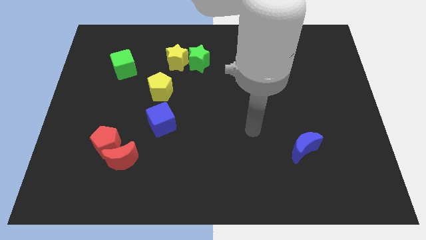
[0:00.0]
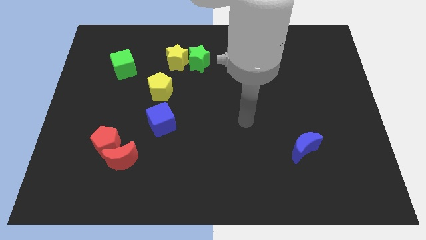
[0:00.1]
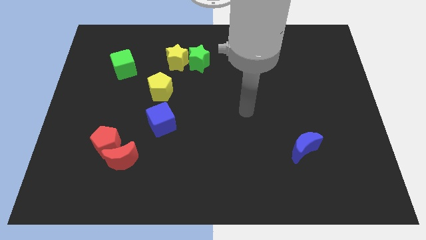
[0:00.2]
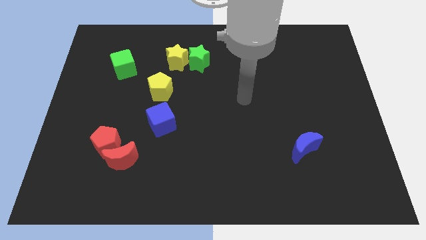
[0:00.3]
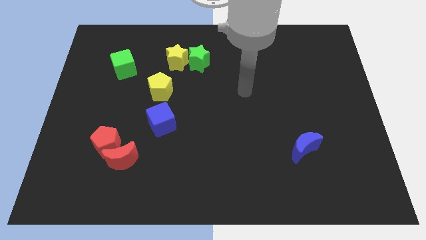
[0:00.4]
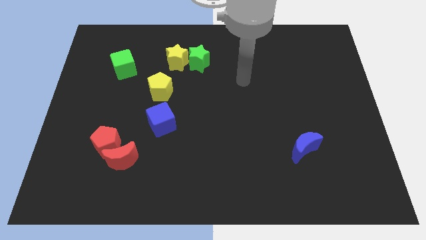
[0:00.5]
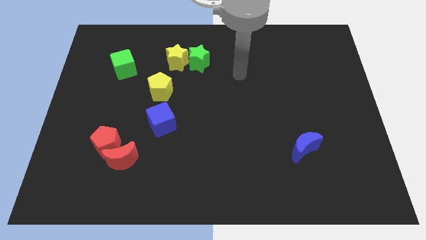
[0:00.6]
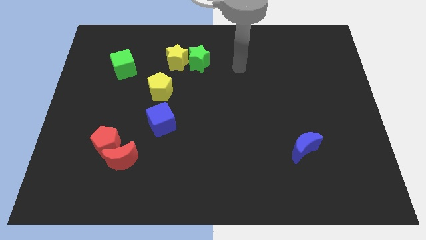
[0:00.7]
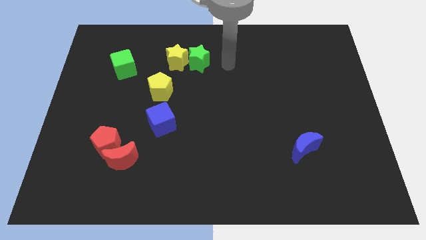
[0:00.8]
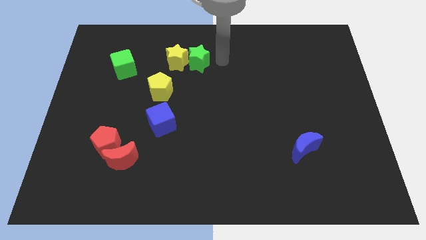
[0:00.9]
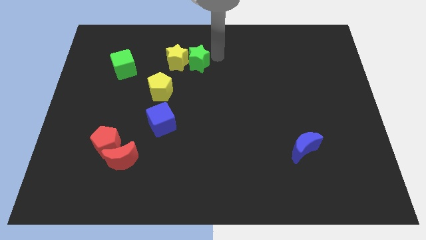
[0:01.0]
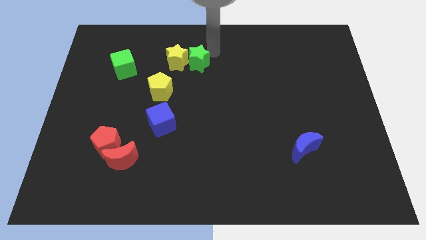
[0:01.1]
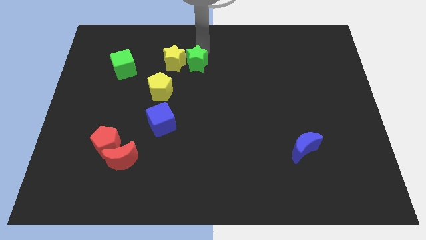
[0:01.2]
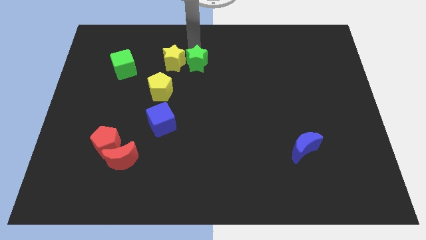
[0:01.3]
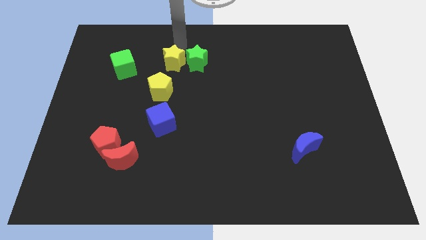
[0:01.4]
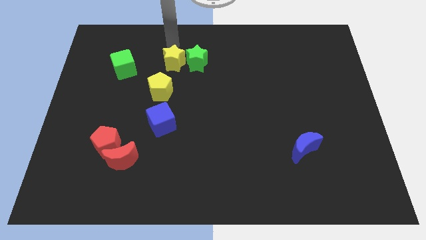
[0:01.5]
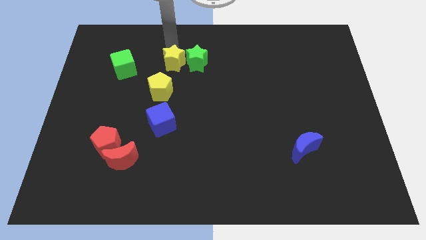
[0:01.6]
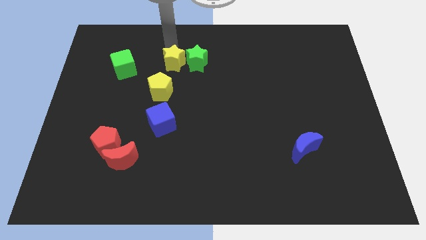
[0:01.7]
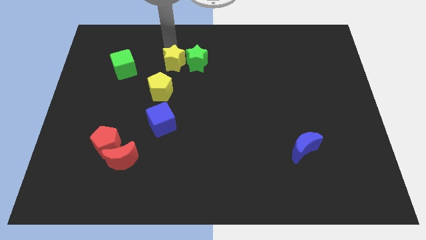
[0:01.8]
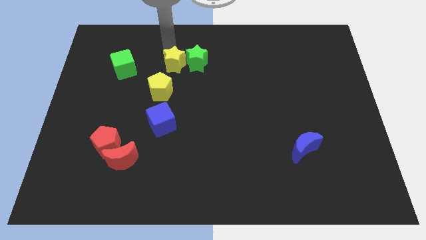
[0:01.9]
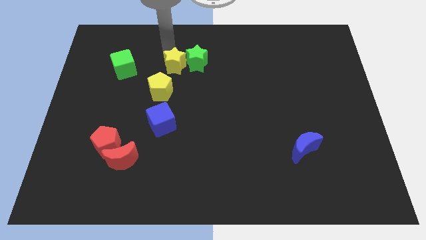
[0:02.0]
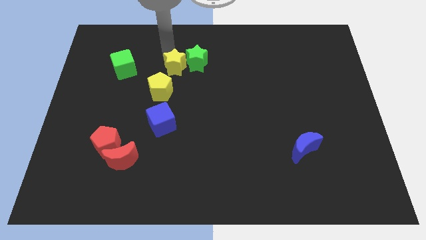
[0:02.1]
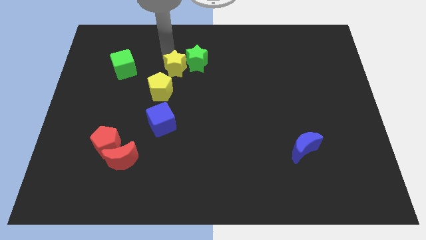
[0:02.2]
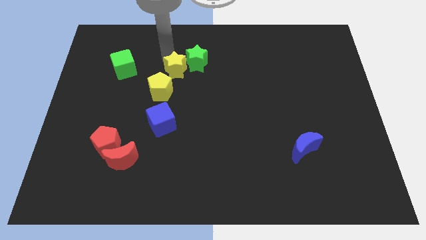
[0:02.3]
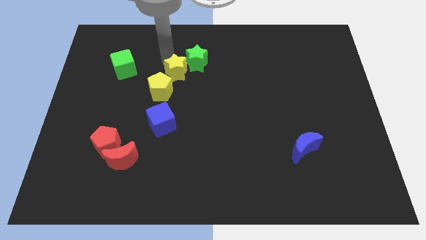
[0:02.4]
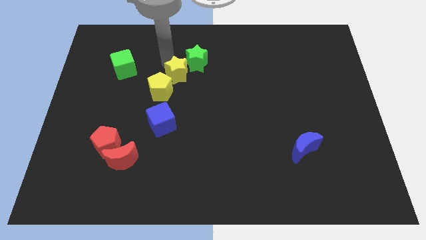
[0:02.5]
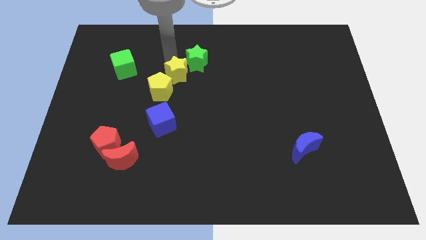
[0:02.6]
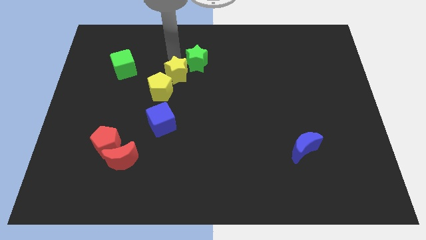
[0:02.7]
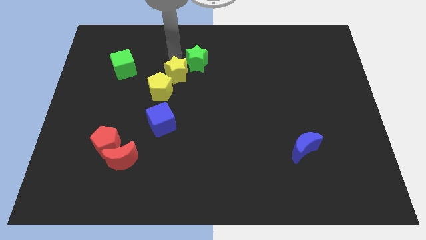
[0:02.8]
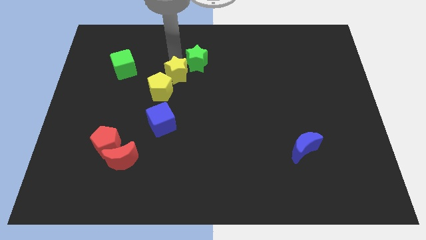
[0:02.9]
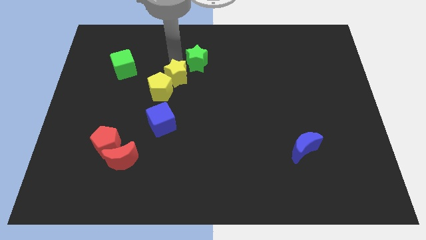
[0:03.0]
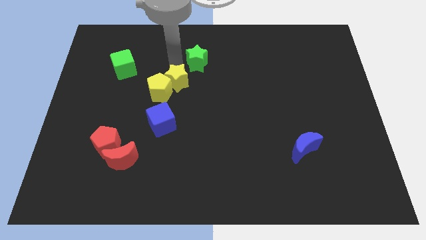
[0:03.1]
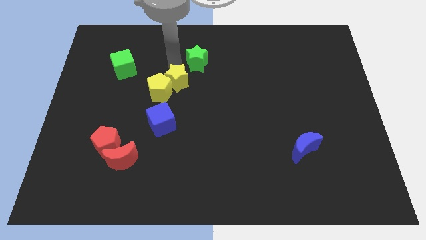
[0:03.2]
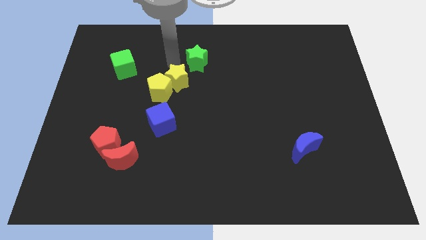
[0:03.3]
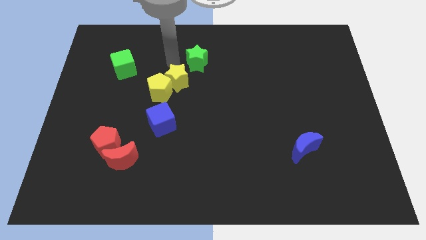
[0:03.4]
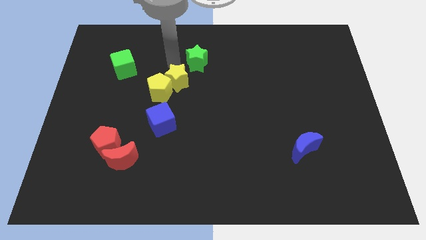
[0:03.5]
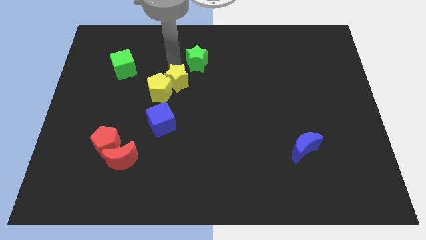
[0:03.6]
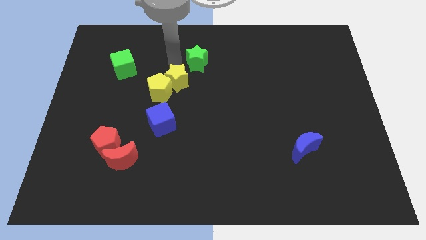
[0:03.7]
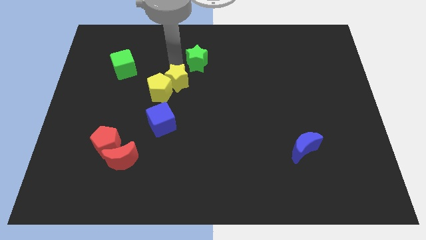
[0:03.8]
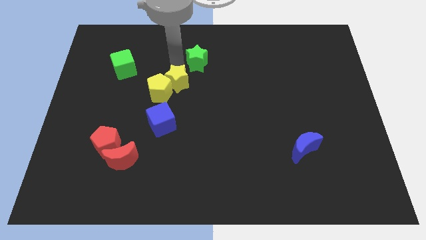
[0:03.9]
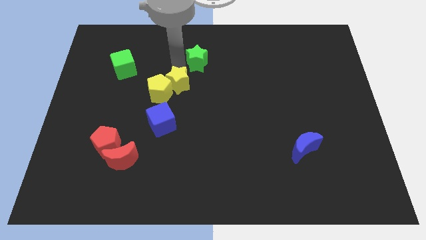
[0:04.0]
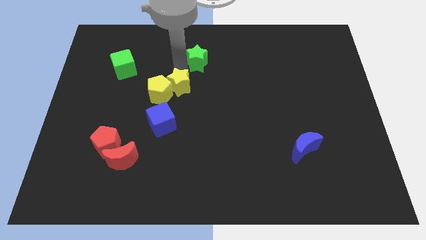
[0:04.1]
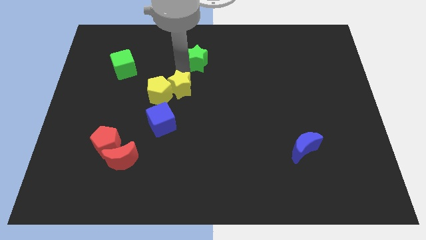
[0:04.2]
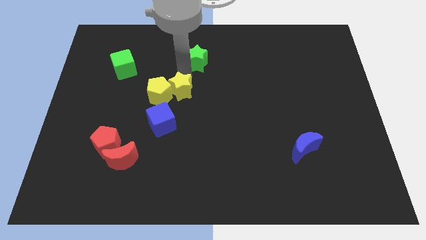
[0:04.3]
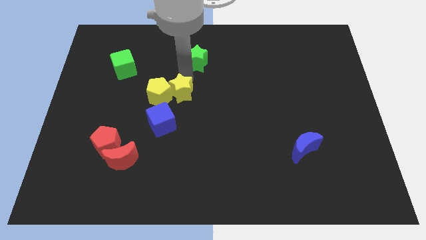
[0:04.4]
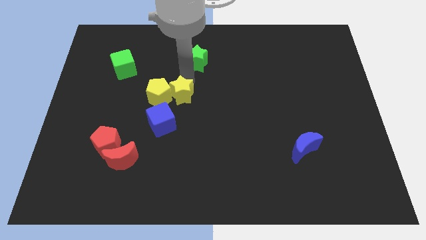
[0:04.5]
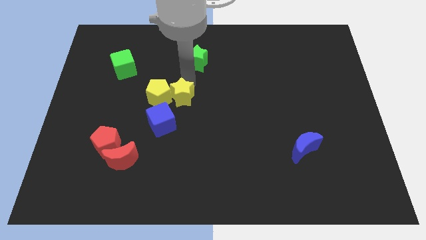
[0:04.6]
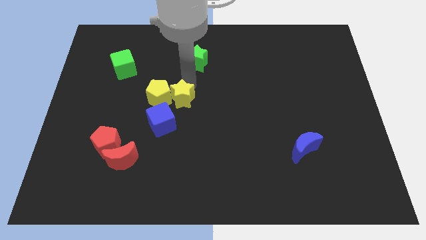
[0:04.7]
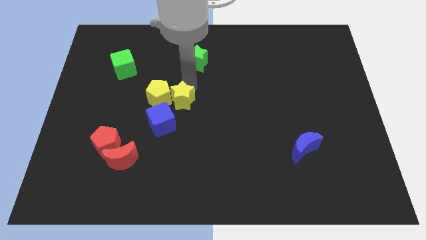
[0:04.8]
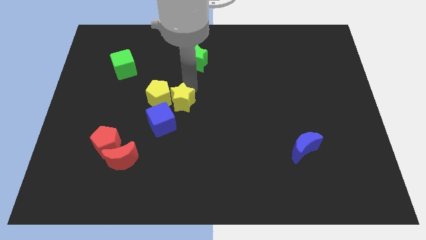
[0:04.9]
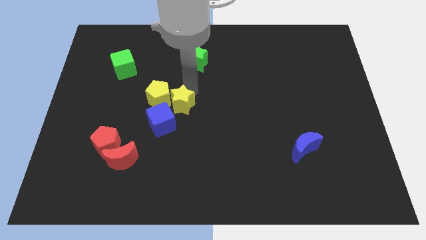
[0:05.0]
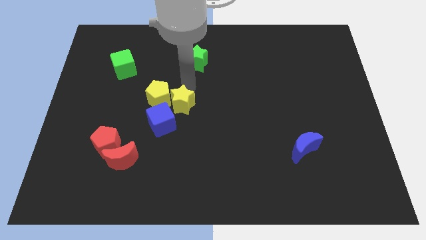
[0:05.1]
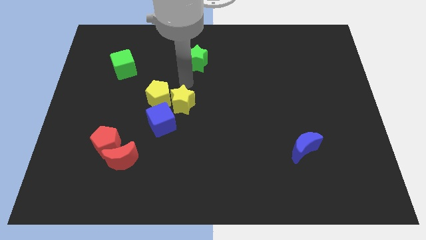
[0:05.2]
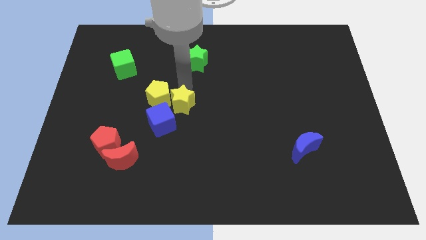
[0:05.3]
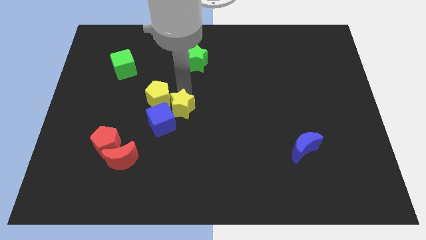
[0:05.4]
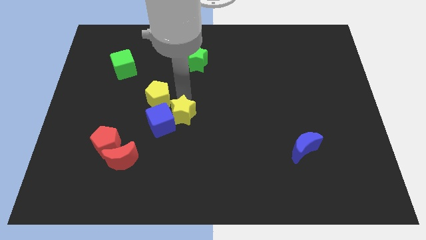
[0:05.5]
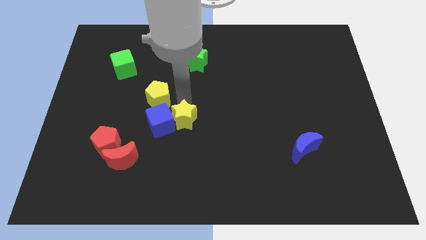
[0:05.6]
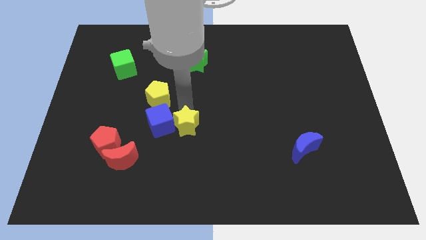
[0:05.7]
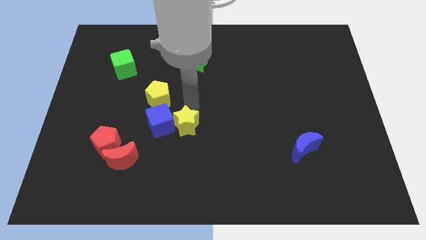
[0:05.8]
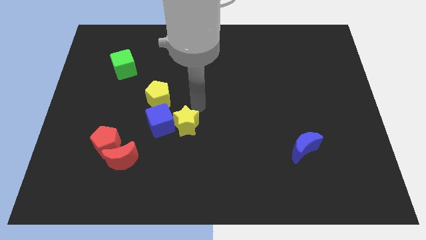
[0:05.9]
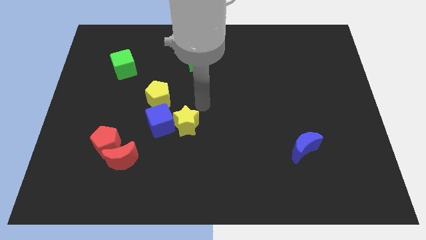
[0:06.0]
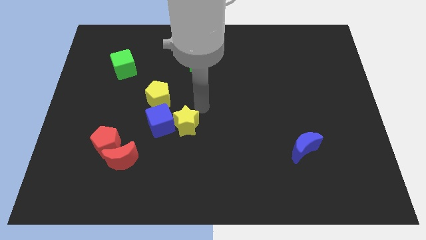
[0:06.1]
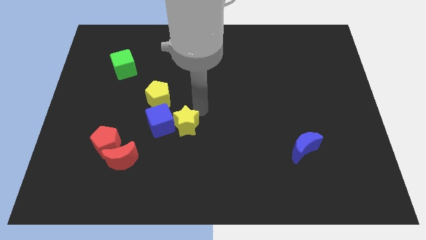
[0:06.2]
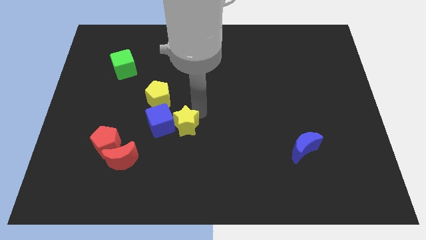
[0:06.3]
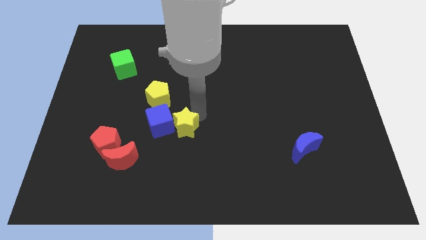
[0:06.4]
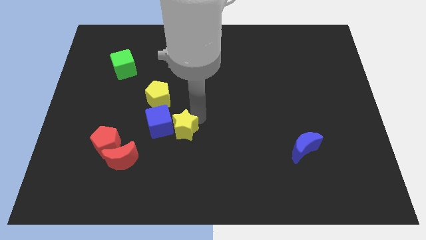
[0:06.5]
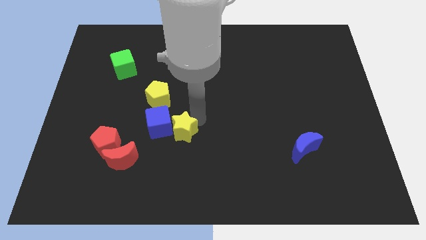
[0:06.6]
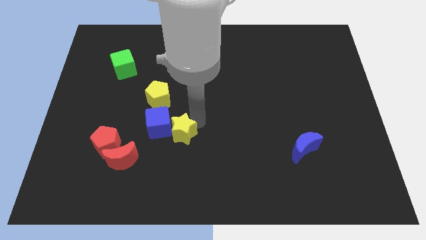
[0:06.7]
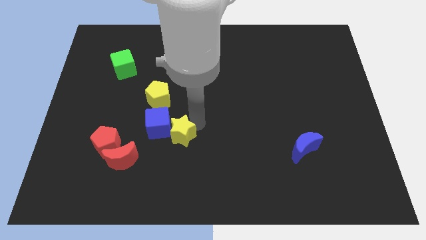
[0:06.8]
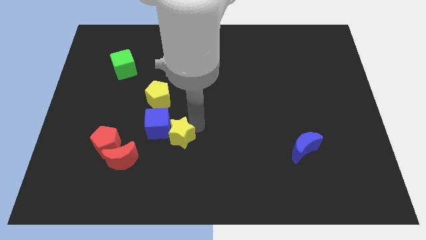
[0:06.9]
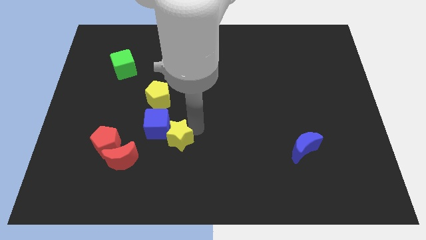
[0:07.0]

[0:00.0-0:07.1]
move the yellow star just right of the red pentagon

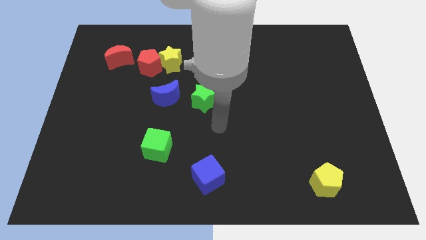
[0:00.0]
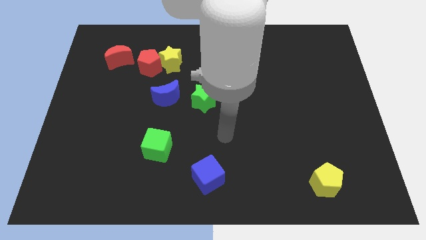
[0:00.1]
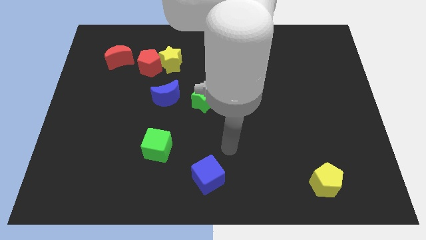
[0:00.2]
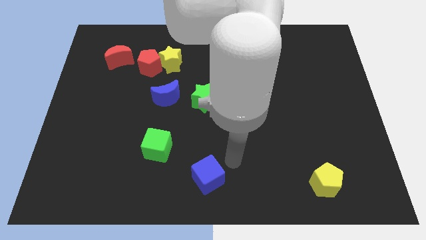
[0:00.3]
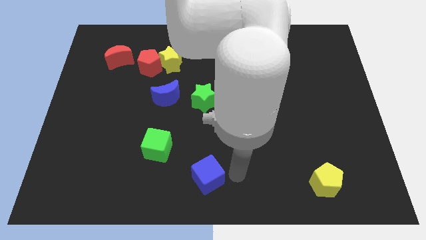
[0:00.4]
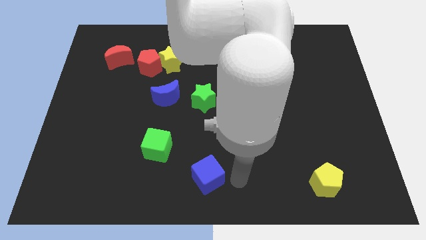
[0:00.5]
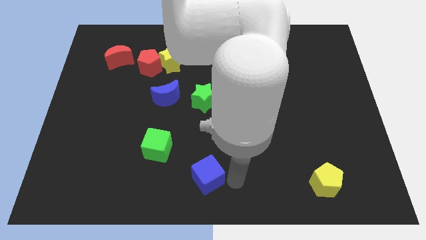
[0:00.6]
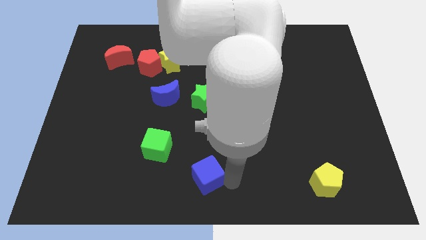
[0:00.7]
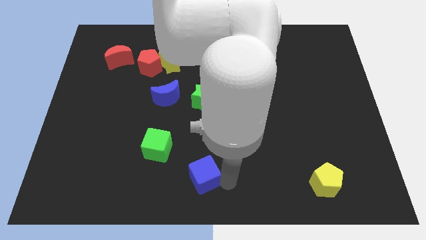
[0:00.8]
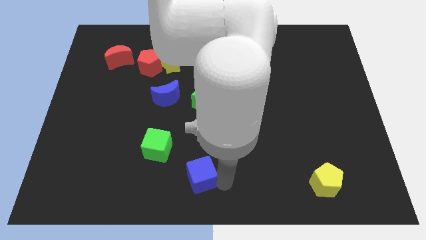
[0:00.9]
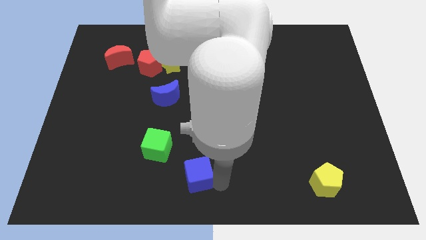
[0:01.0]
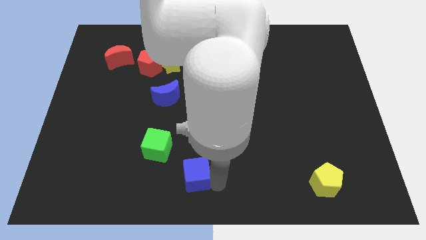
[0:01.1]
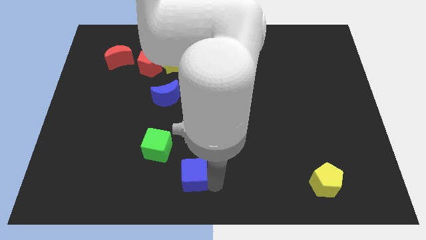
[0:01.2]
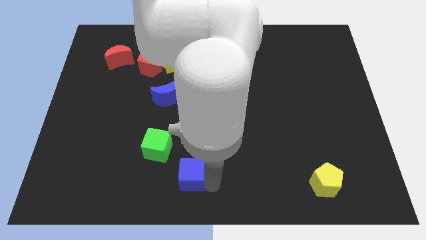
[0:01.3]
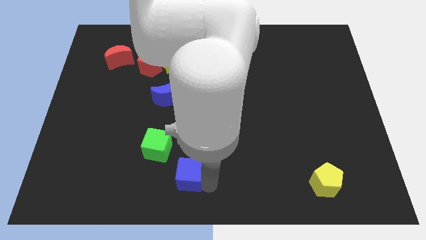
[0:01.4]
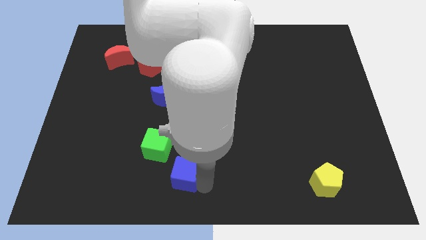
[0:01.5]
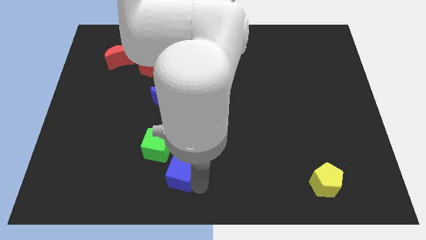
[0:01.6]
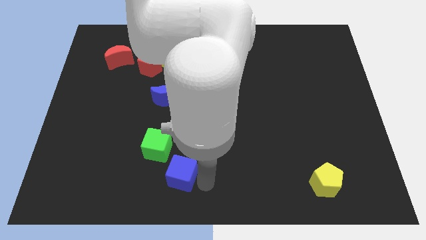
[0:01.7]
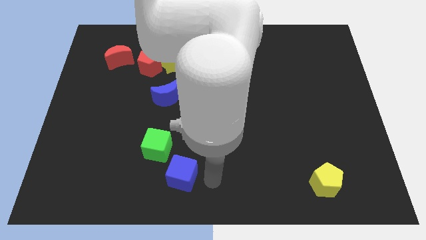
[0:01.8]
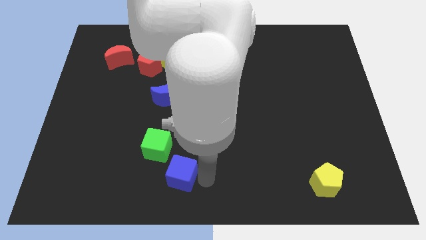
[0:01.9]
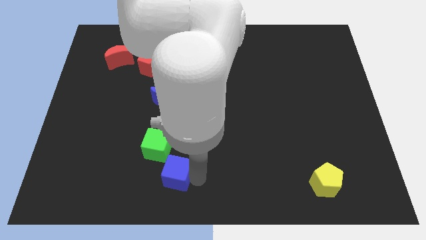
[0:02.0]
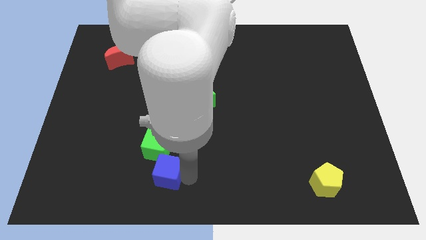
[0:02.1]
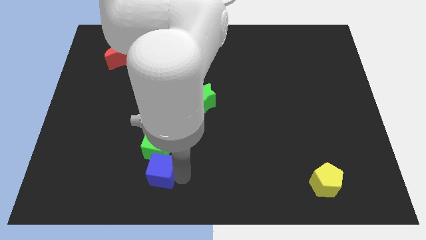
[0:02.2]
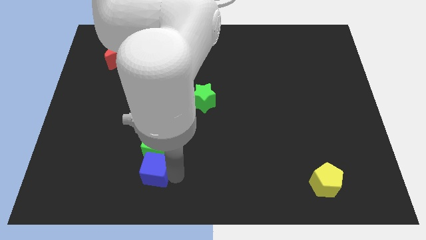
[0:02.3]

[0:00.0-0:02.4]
push the blue cube diagonally down and to the left of the green cube
